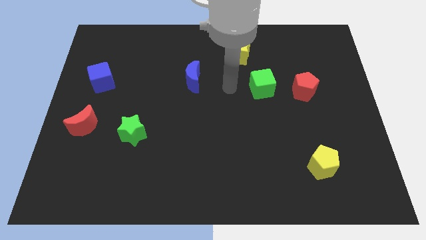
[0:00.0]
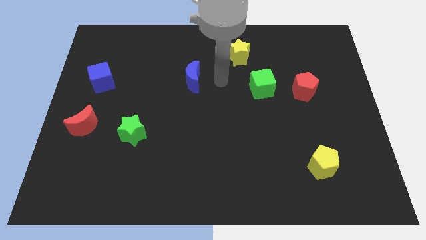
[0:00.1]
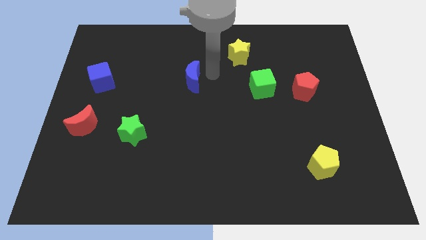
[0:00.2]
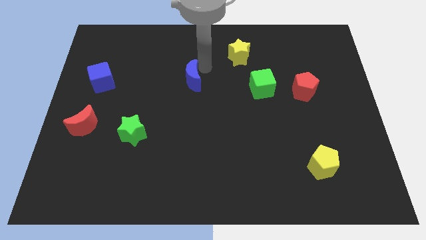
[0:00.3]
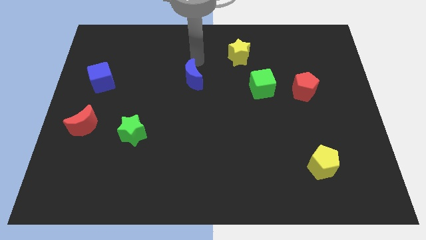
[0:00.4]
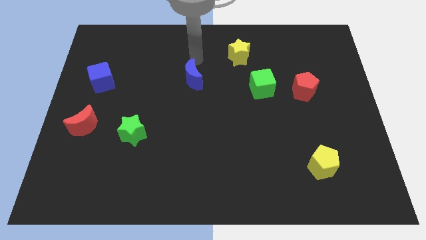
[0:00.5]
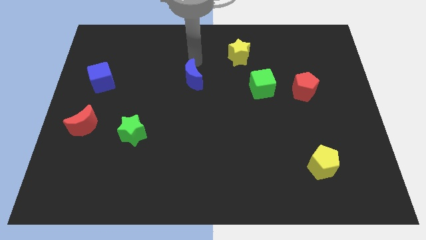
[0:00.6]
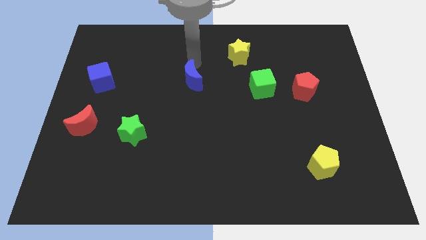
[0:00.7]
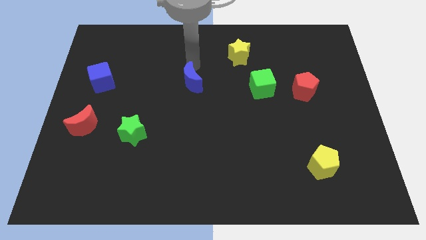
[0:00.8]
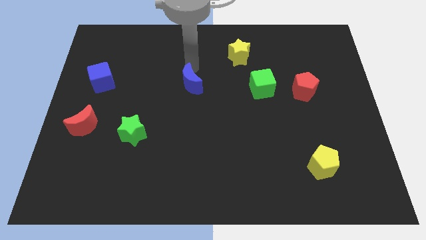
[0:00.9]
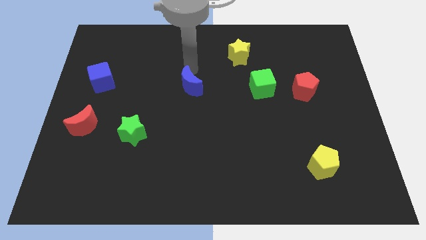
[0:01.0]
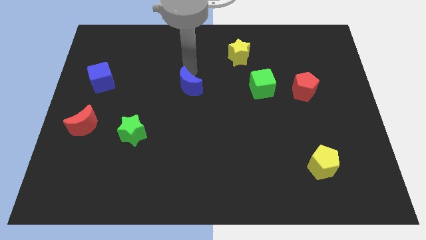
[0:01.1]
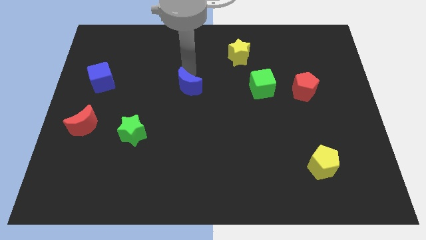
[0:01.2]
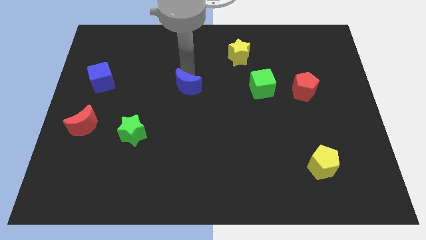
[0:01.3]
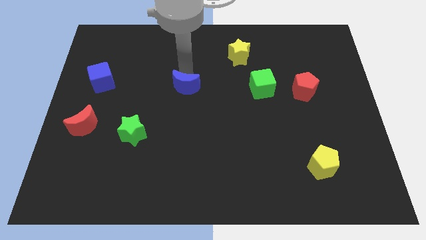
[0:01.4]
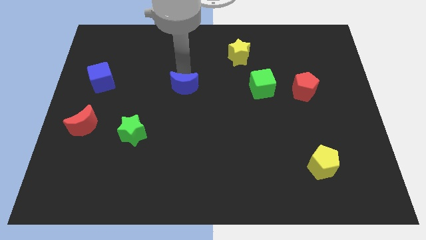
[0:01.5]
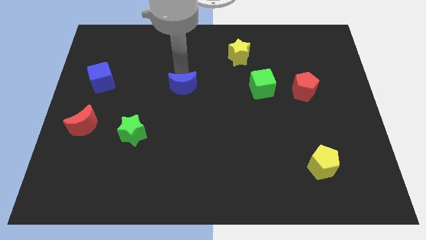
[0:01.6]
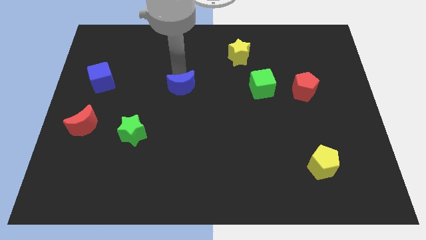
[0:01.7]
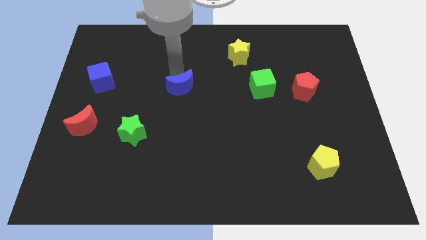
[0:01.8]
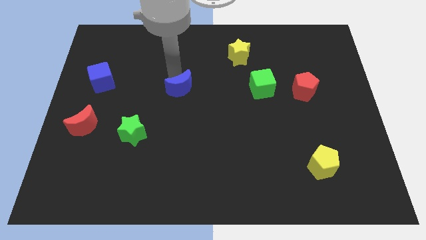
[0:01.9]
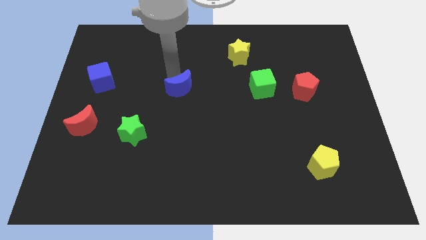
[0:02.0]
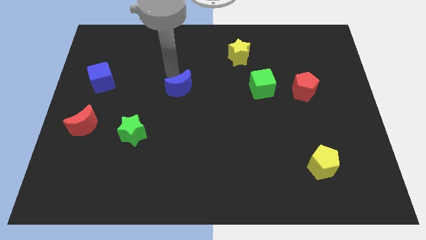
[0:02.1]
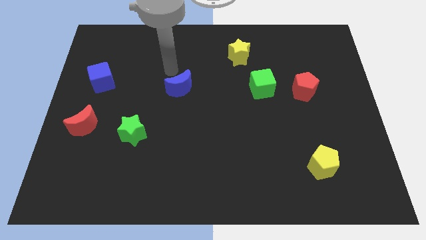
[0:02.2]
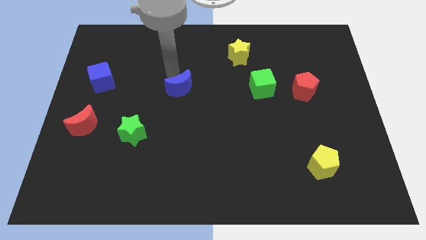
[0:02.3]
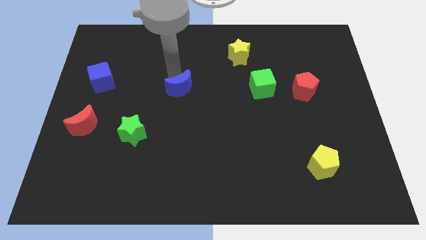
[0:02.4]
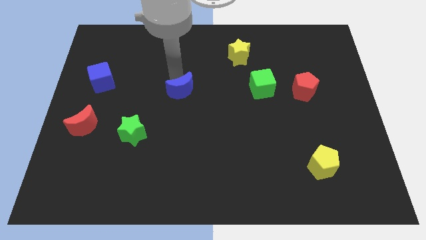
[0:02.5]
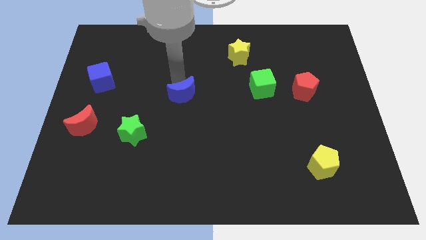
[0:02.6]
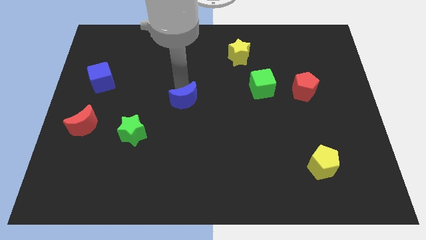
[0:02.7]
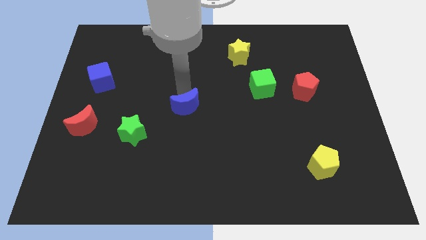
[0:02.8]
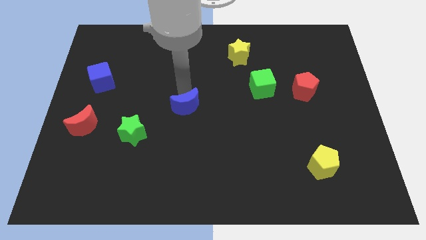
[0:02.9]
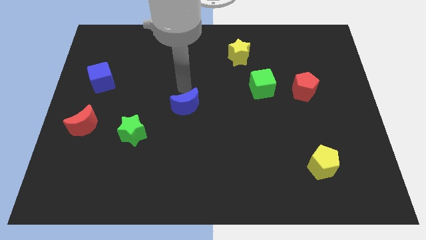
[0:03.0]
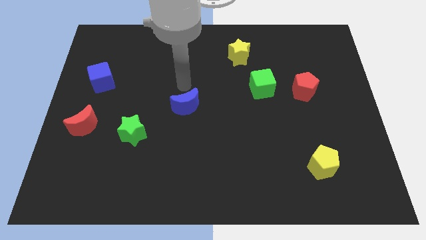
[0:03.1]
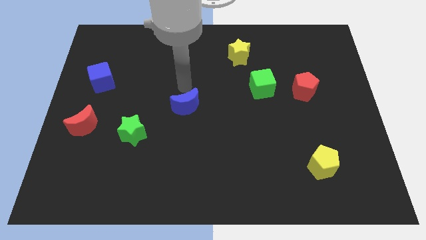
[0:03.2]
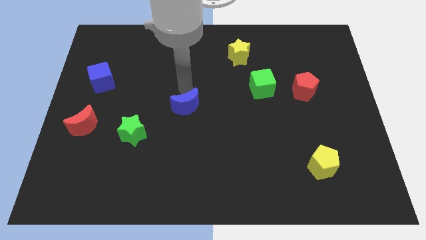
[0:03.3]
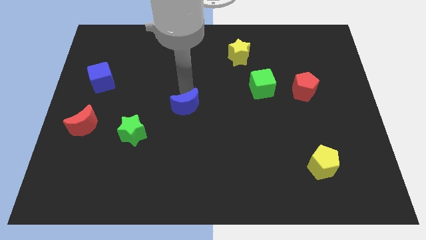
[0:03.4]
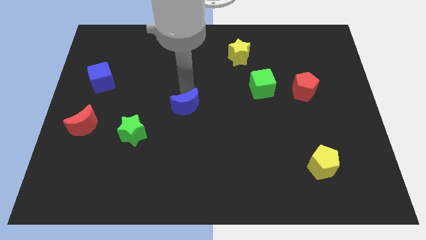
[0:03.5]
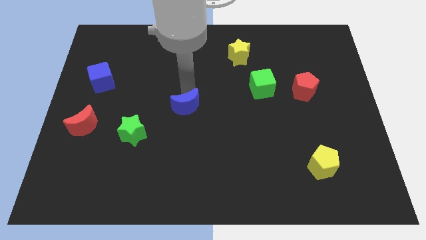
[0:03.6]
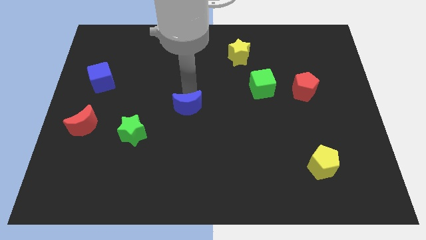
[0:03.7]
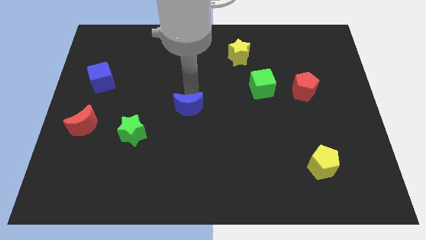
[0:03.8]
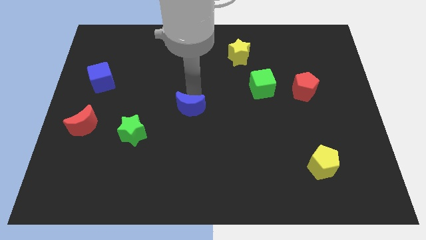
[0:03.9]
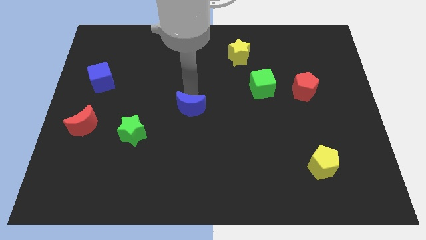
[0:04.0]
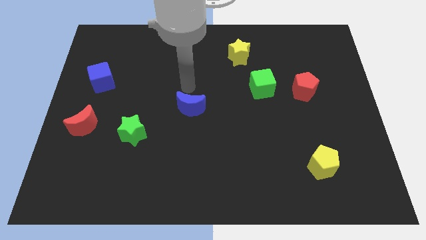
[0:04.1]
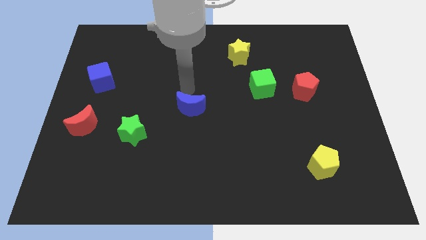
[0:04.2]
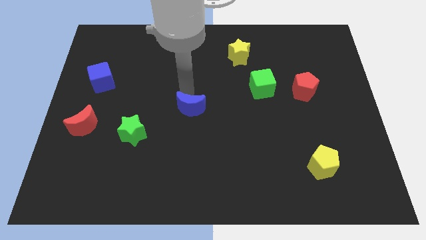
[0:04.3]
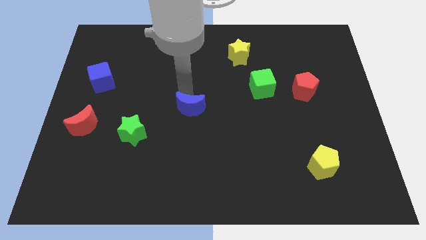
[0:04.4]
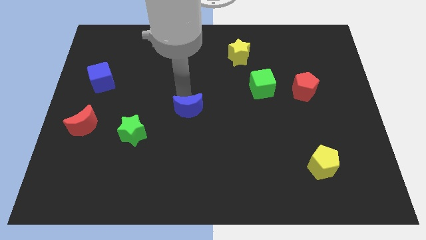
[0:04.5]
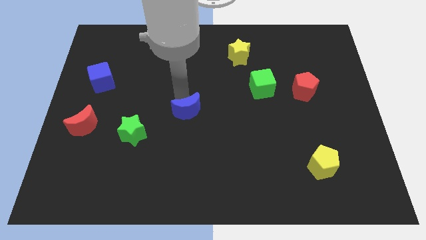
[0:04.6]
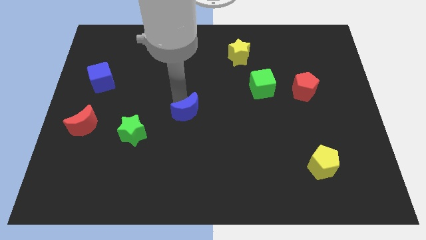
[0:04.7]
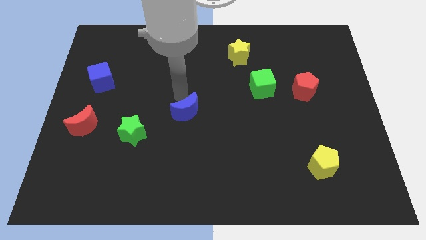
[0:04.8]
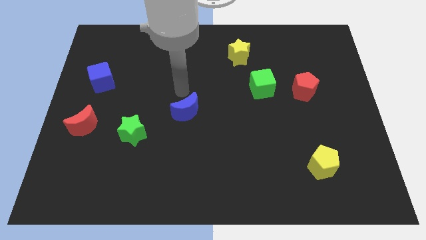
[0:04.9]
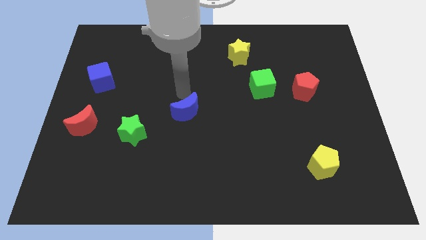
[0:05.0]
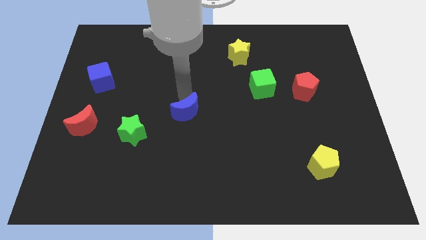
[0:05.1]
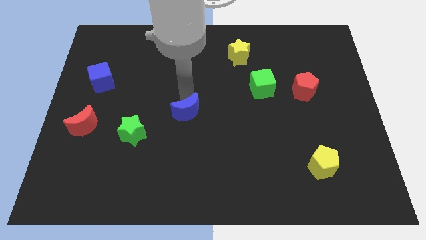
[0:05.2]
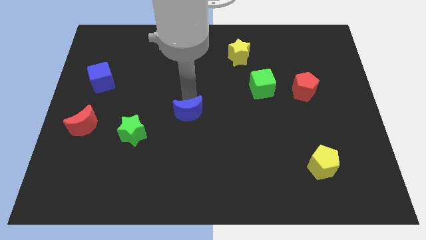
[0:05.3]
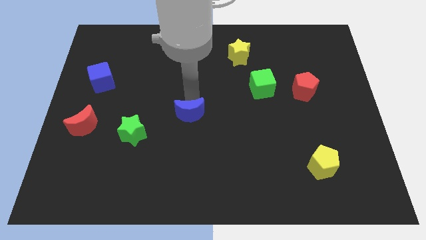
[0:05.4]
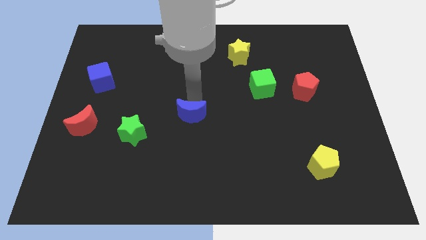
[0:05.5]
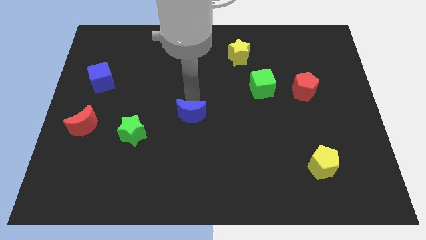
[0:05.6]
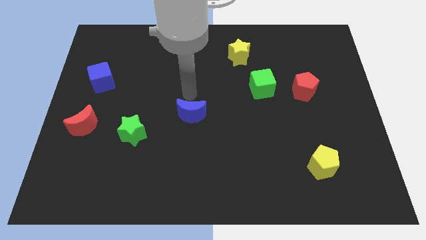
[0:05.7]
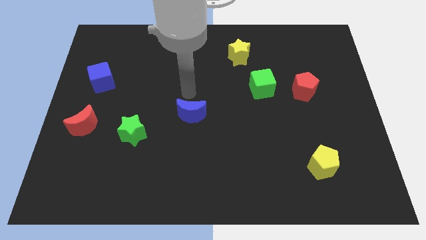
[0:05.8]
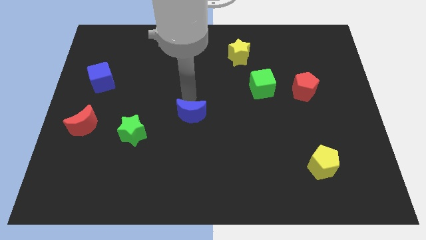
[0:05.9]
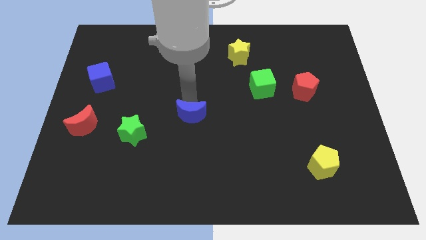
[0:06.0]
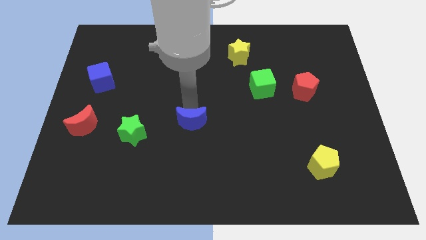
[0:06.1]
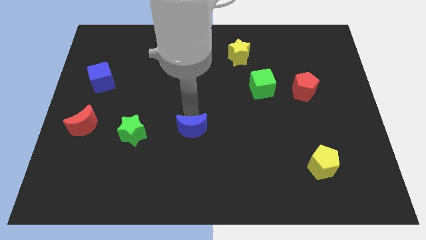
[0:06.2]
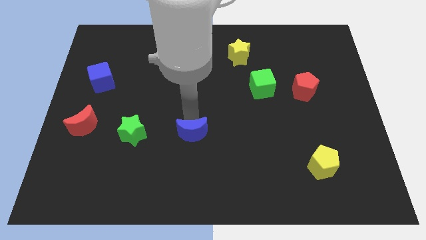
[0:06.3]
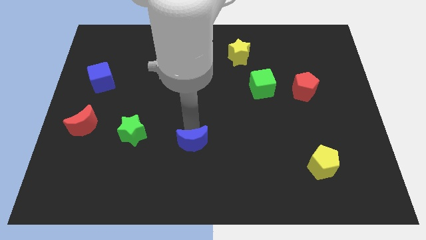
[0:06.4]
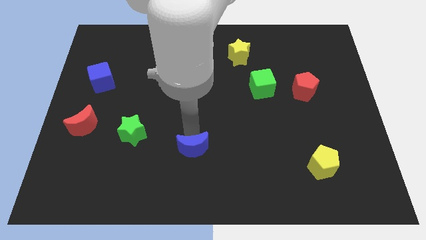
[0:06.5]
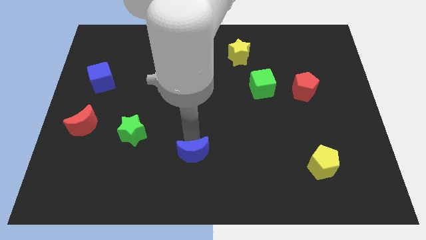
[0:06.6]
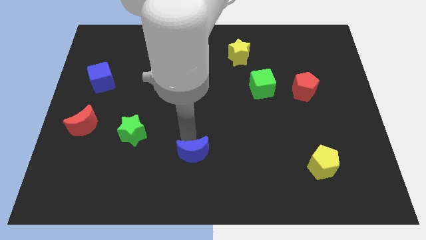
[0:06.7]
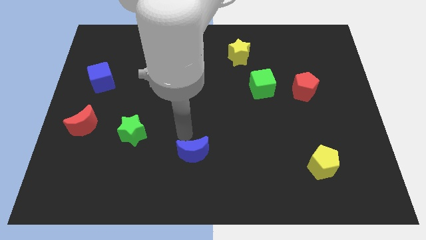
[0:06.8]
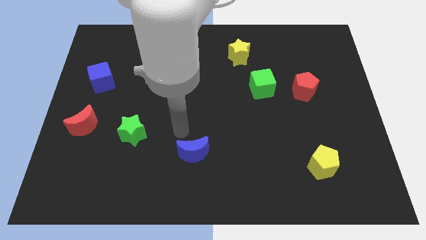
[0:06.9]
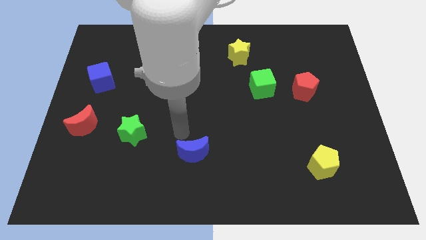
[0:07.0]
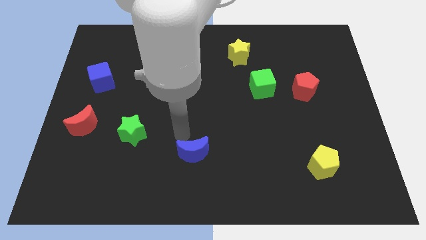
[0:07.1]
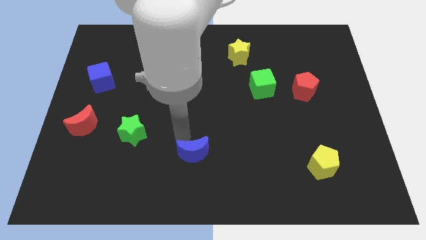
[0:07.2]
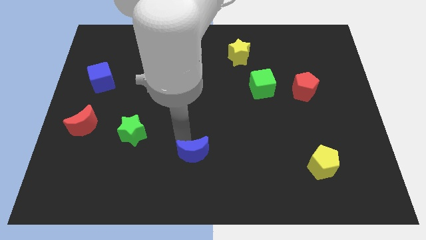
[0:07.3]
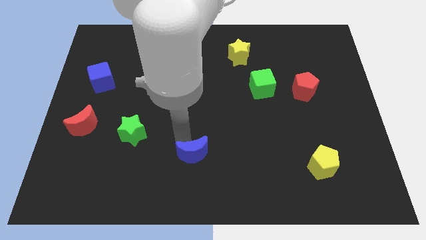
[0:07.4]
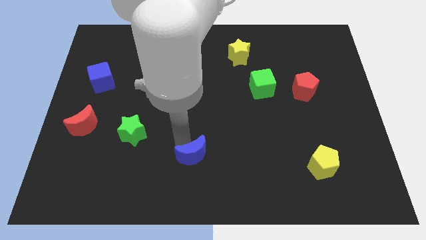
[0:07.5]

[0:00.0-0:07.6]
put the blue moon to the bottom

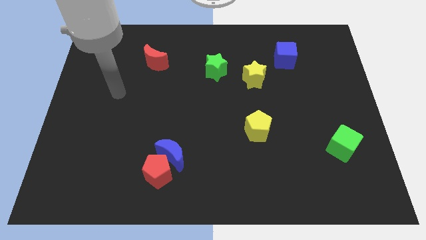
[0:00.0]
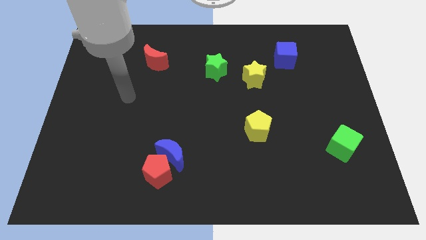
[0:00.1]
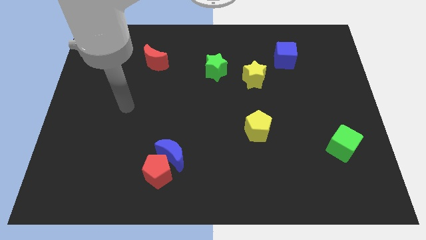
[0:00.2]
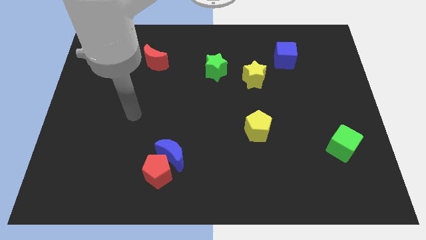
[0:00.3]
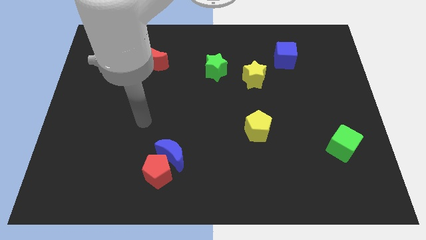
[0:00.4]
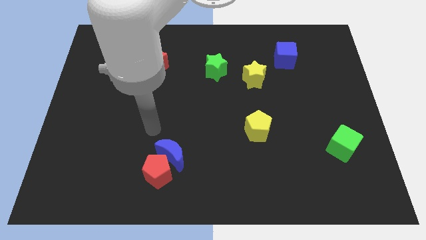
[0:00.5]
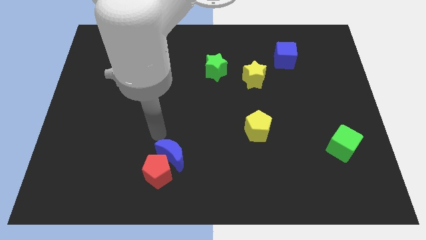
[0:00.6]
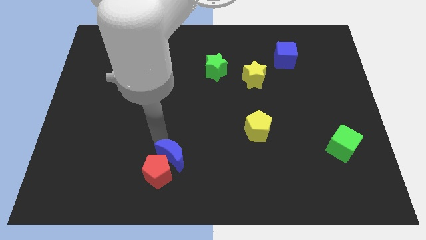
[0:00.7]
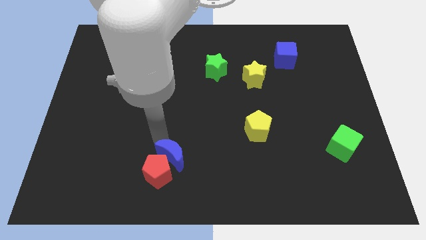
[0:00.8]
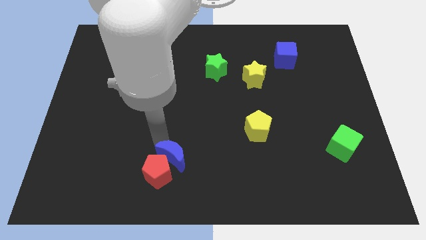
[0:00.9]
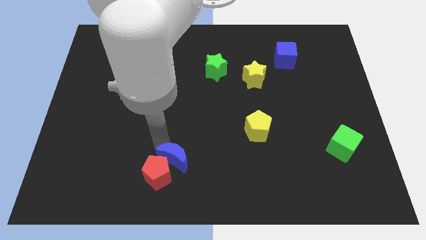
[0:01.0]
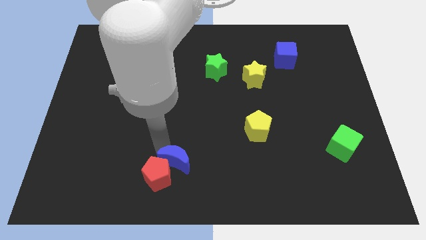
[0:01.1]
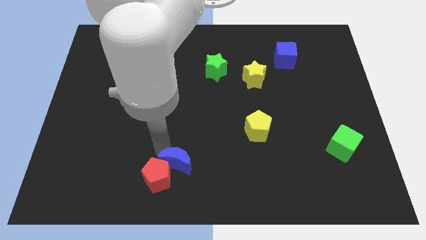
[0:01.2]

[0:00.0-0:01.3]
slide the blue moon to the bottom side
